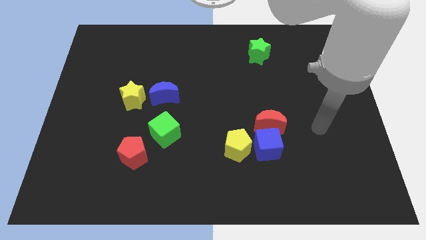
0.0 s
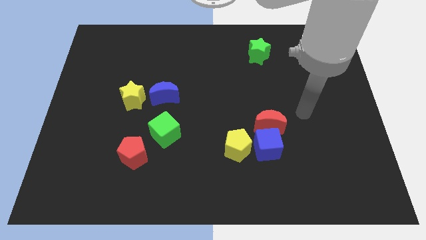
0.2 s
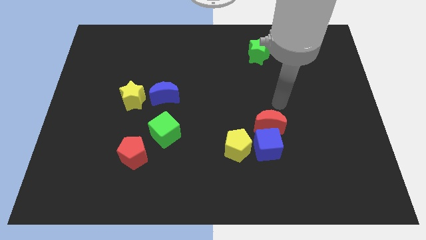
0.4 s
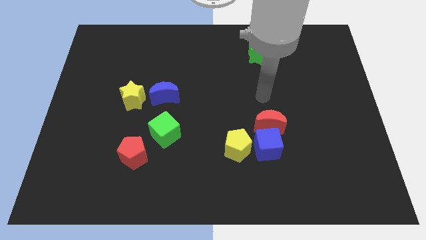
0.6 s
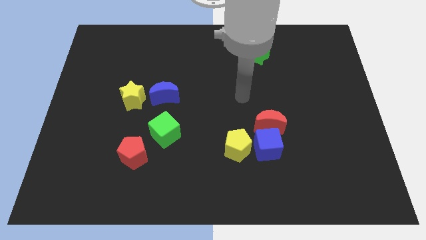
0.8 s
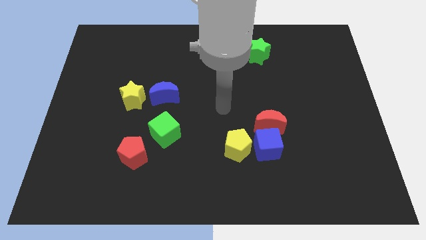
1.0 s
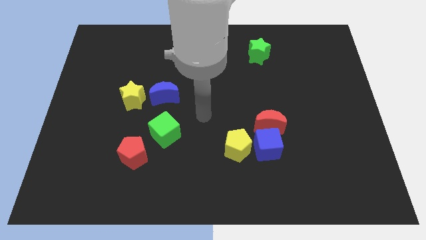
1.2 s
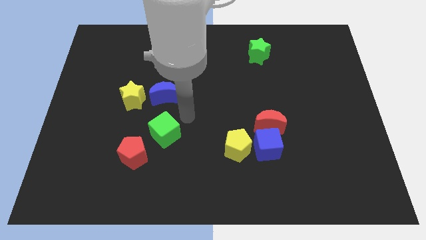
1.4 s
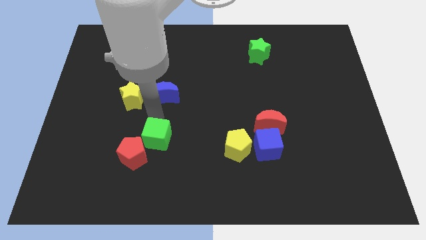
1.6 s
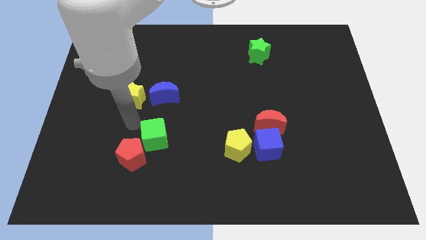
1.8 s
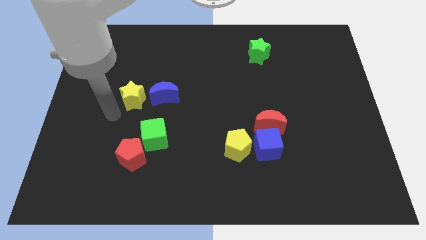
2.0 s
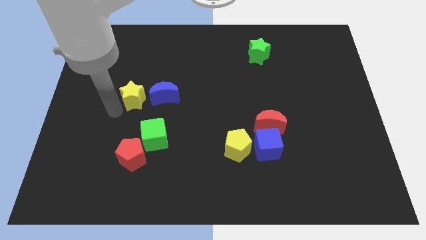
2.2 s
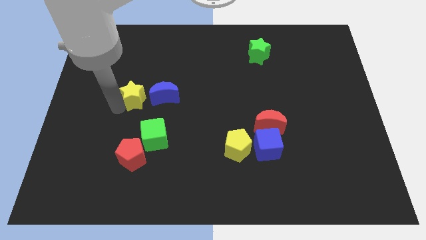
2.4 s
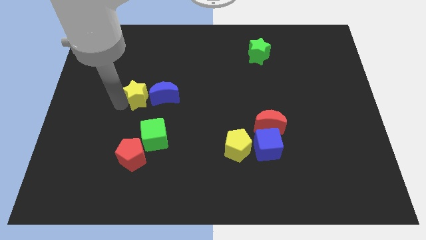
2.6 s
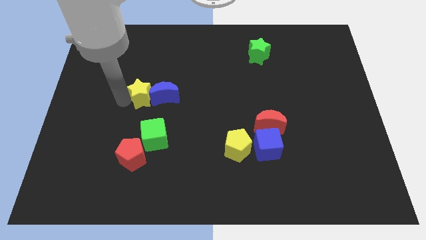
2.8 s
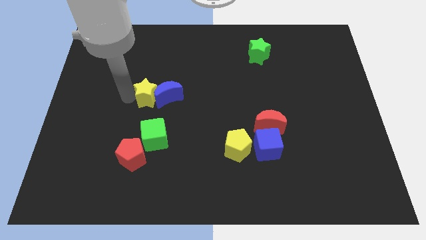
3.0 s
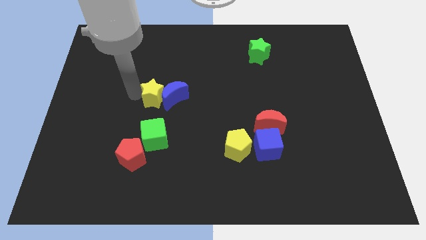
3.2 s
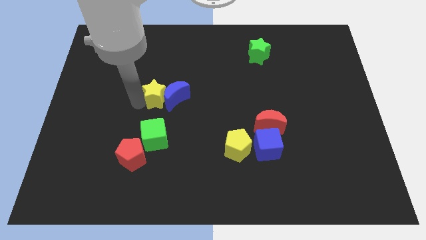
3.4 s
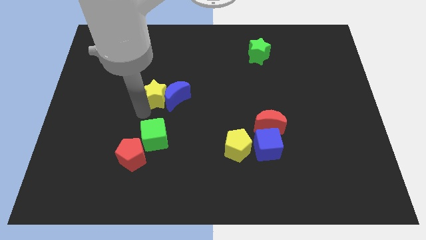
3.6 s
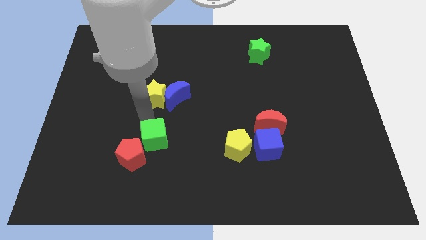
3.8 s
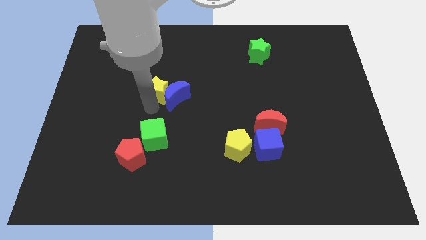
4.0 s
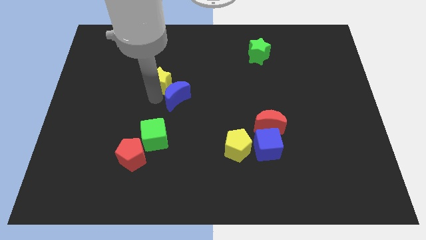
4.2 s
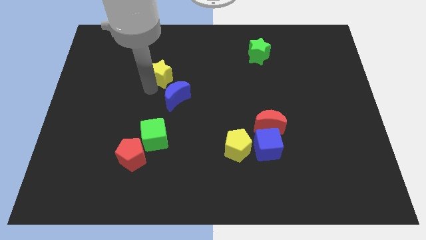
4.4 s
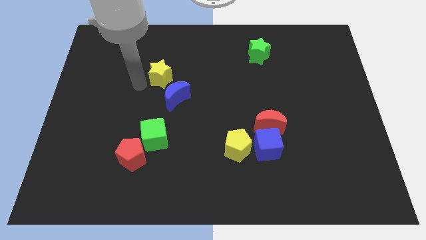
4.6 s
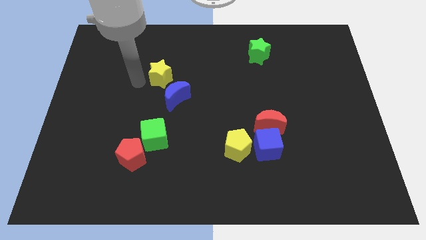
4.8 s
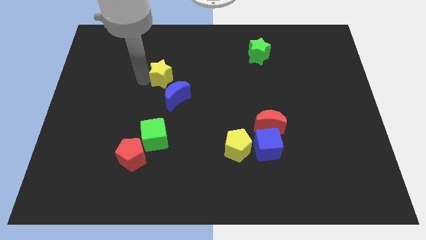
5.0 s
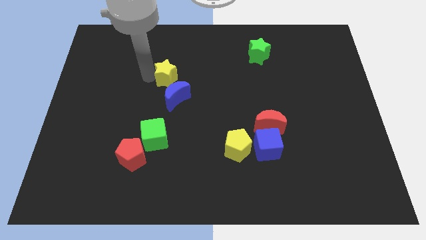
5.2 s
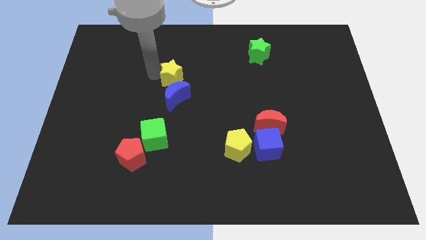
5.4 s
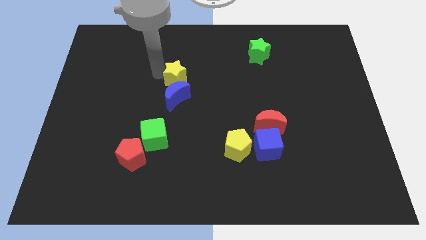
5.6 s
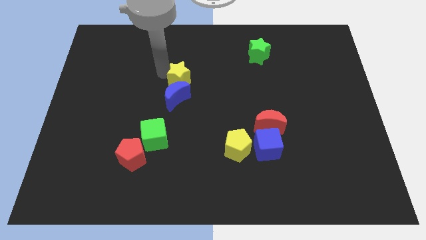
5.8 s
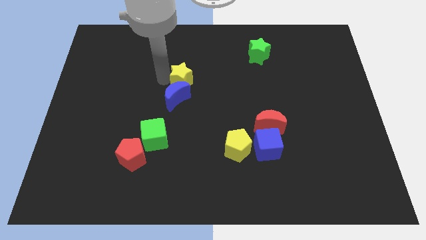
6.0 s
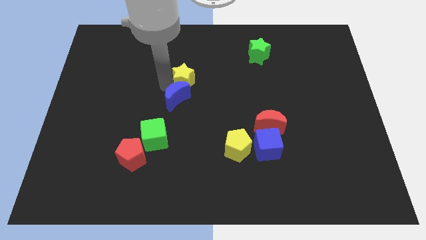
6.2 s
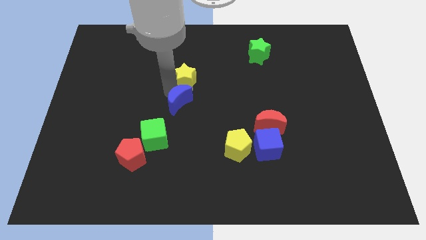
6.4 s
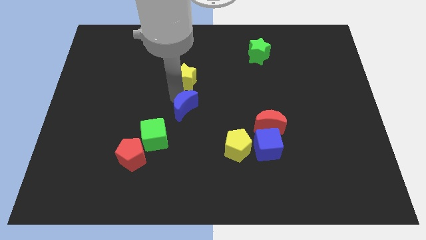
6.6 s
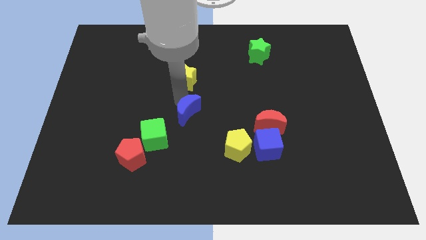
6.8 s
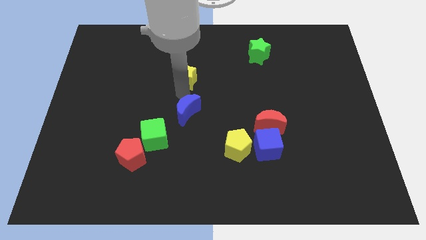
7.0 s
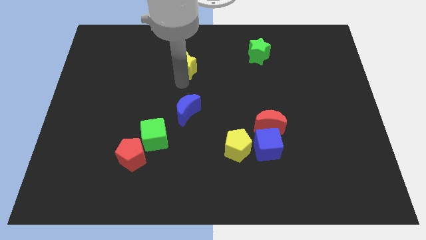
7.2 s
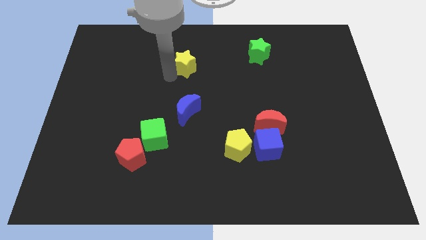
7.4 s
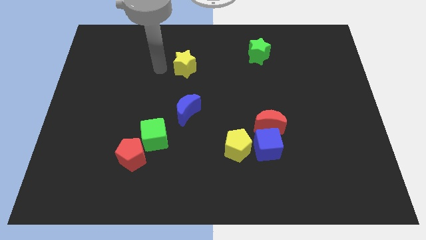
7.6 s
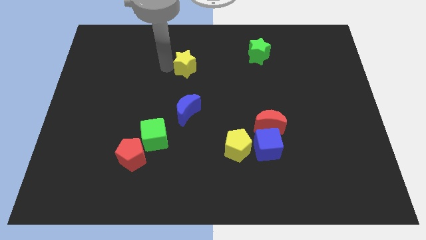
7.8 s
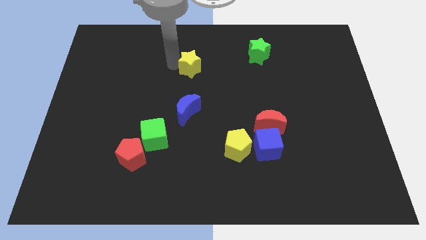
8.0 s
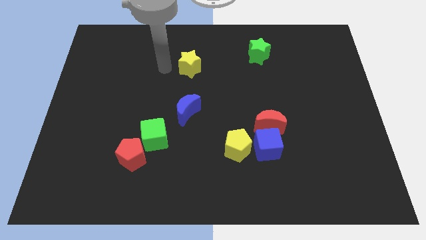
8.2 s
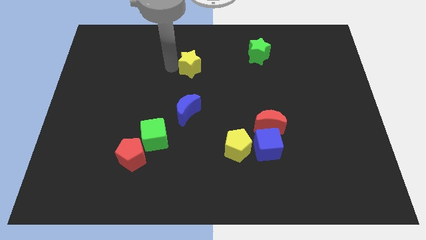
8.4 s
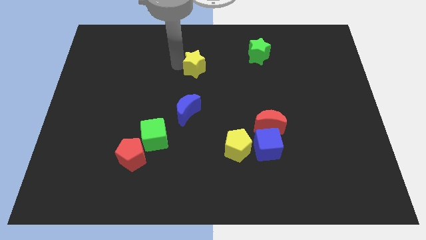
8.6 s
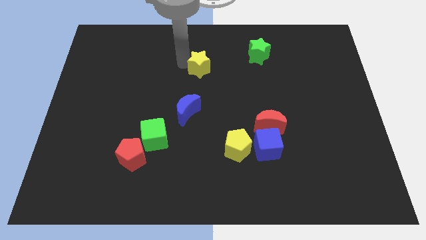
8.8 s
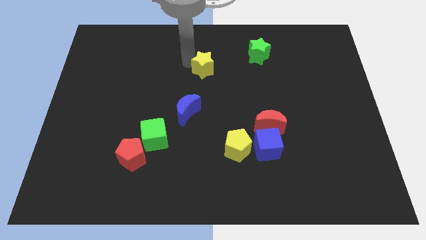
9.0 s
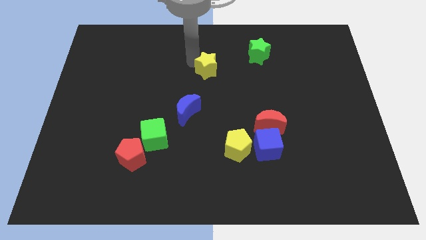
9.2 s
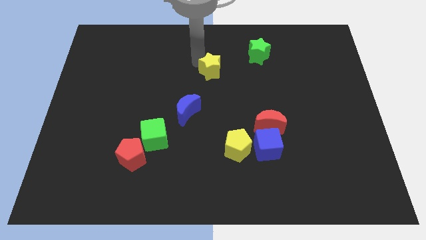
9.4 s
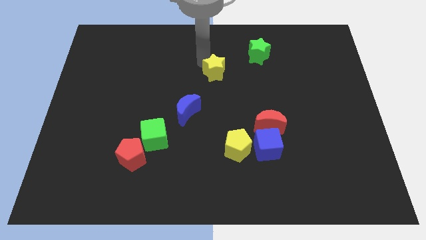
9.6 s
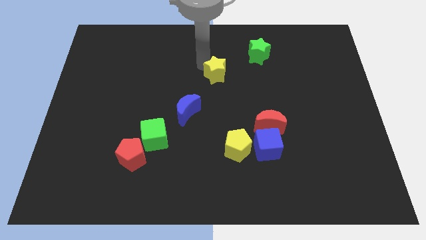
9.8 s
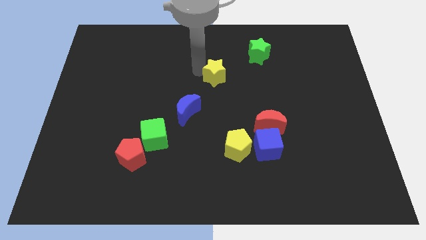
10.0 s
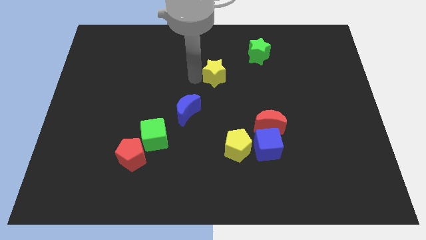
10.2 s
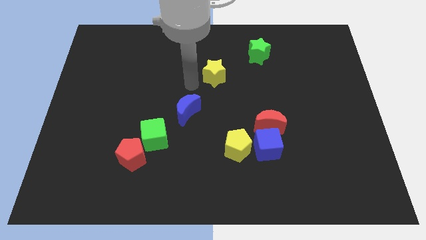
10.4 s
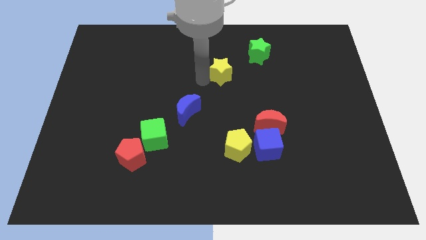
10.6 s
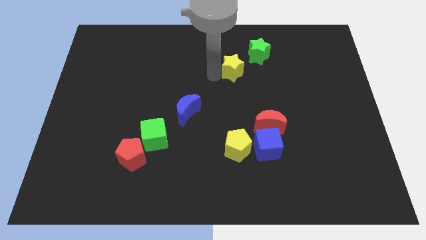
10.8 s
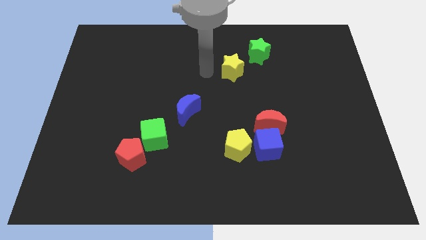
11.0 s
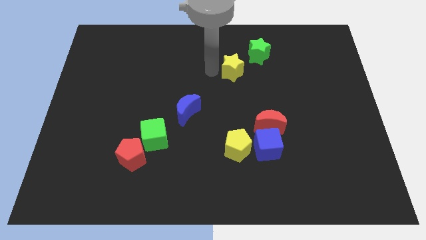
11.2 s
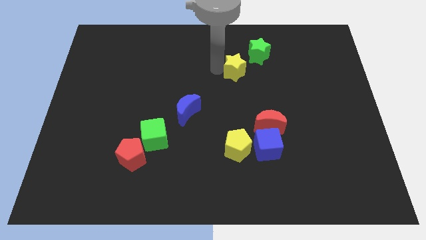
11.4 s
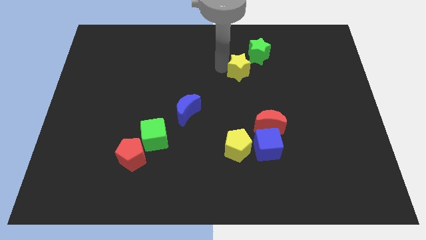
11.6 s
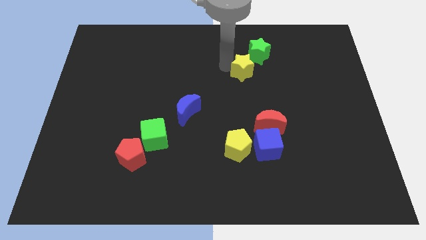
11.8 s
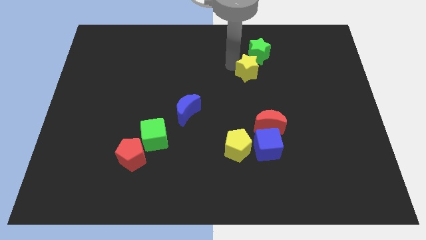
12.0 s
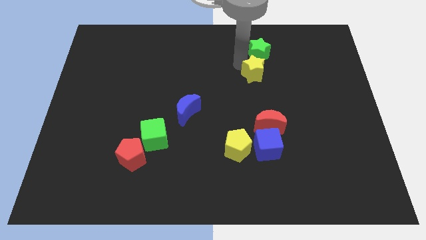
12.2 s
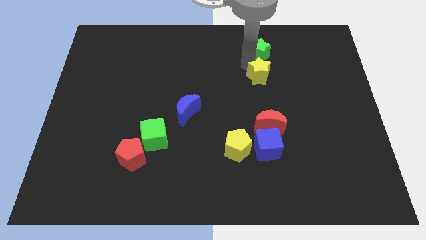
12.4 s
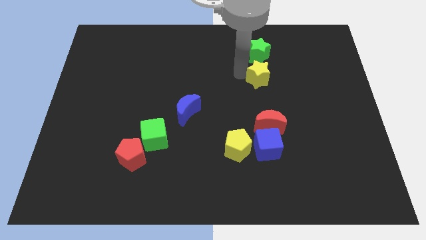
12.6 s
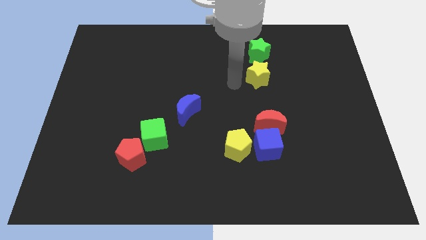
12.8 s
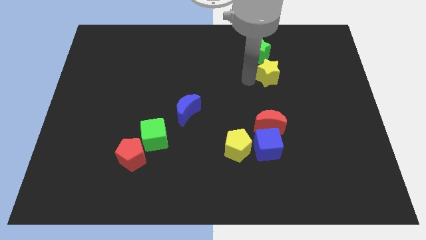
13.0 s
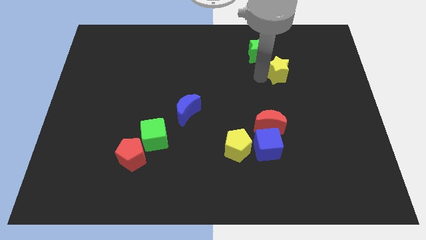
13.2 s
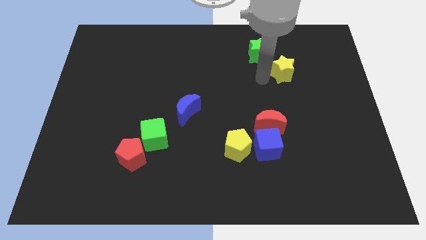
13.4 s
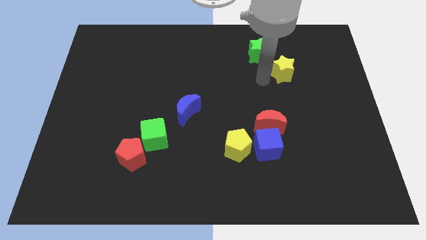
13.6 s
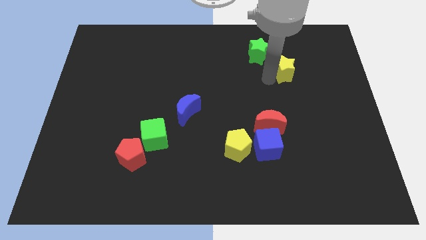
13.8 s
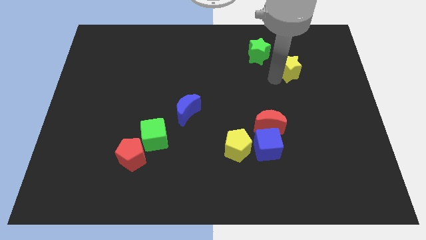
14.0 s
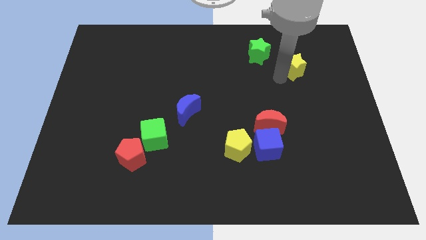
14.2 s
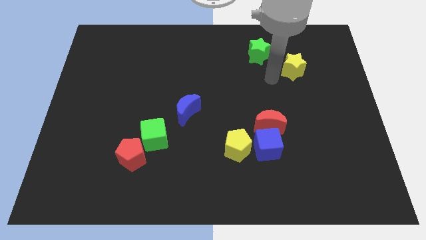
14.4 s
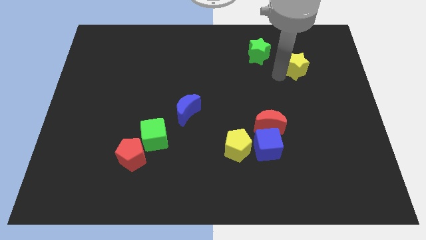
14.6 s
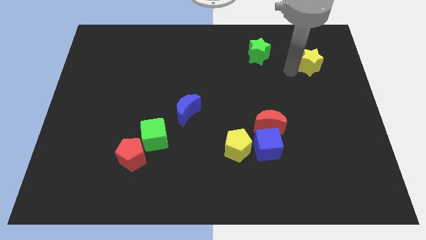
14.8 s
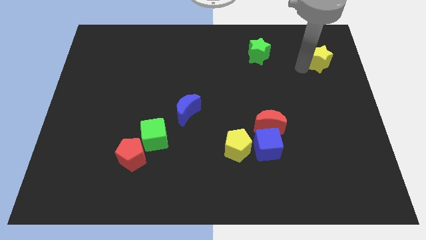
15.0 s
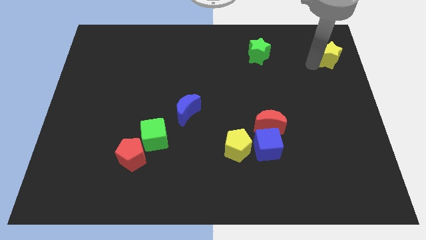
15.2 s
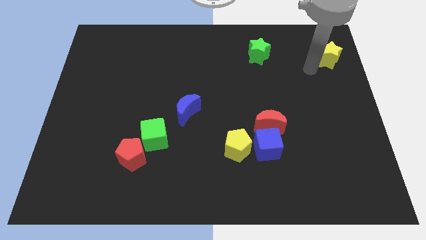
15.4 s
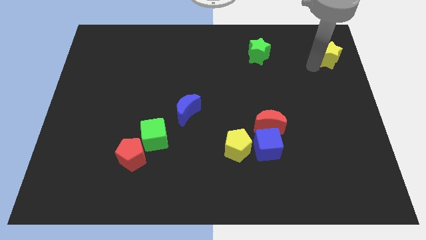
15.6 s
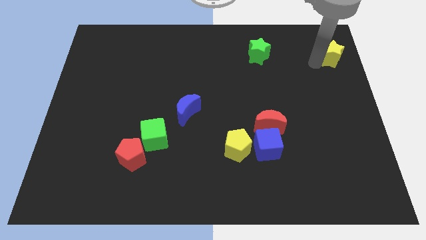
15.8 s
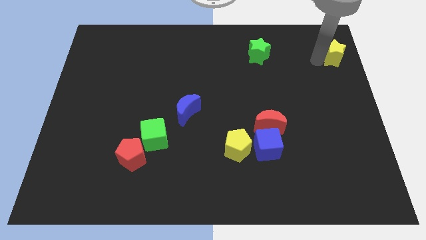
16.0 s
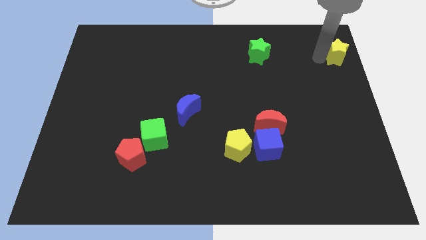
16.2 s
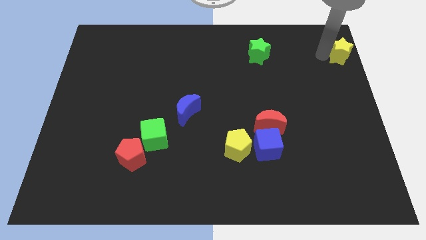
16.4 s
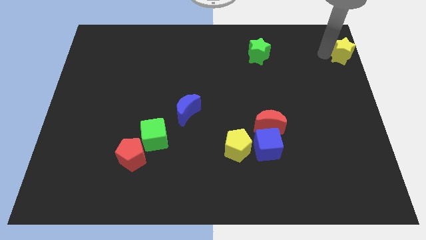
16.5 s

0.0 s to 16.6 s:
slide the yellow star to the top right
